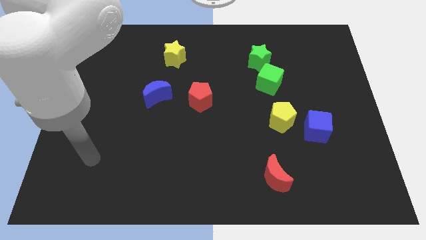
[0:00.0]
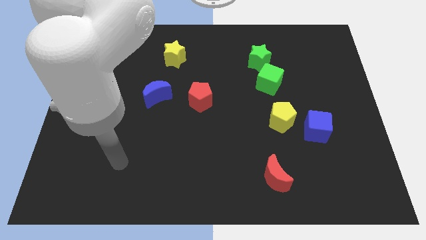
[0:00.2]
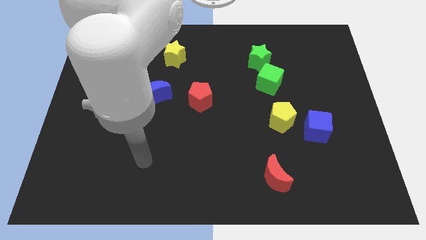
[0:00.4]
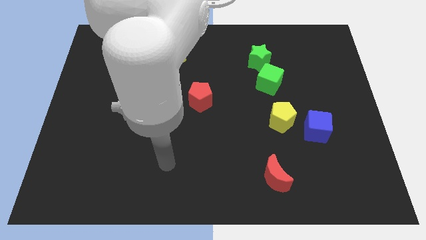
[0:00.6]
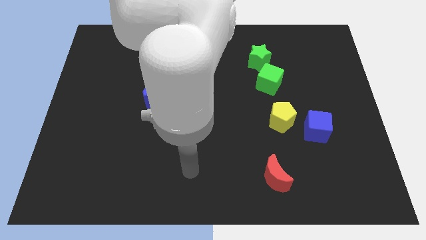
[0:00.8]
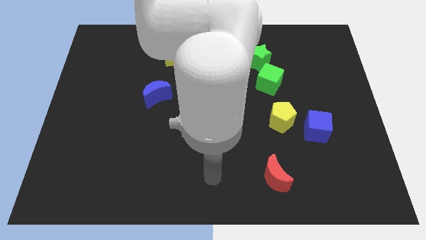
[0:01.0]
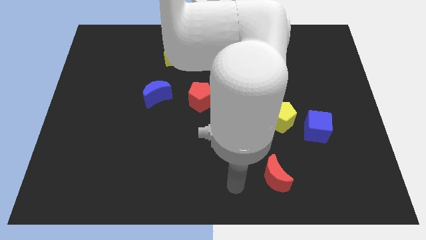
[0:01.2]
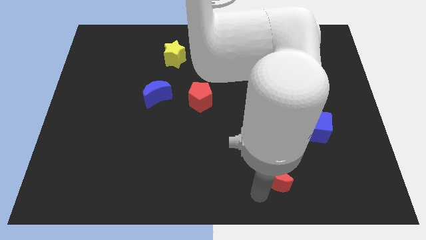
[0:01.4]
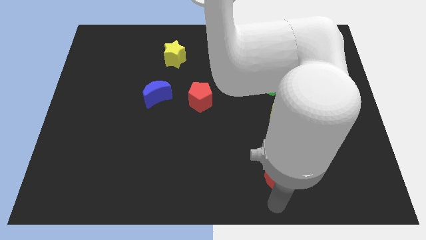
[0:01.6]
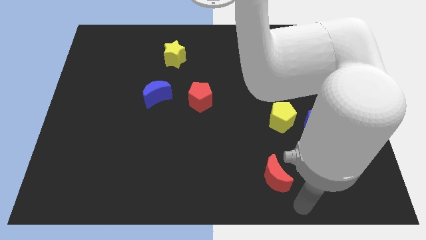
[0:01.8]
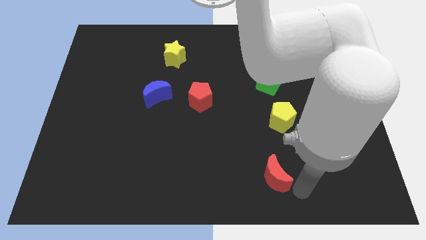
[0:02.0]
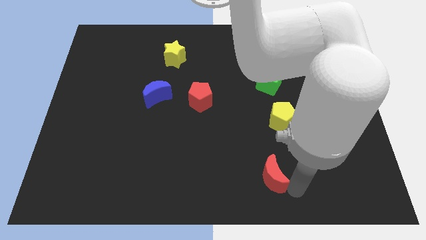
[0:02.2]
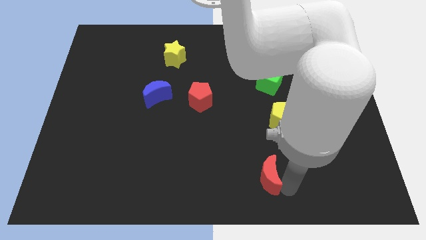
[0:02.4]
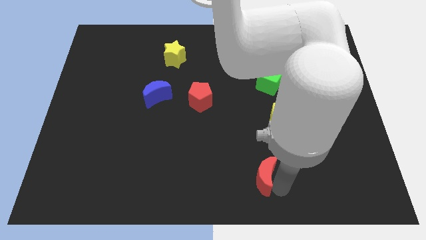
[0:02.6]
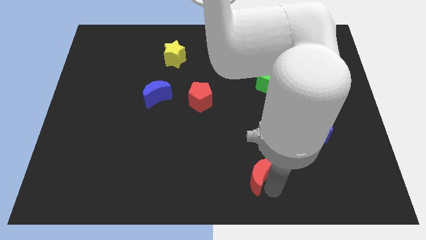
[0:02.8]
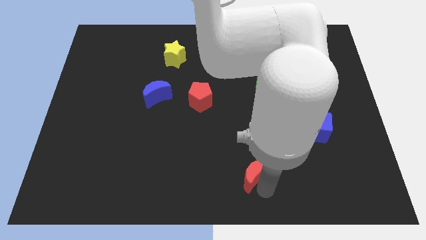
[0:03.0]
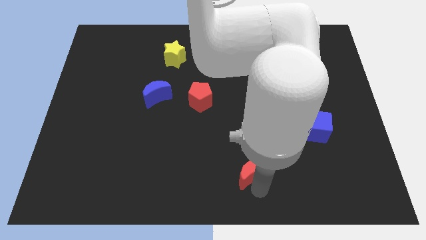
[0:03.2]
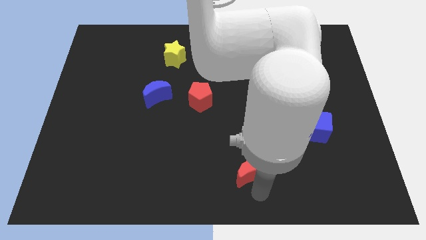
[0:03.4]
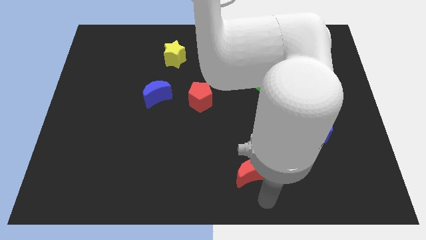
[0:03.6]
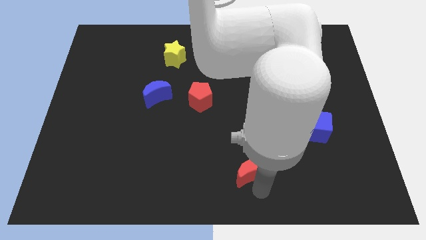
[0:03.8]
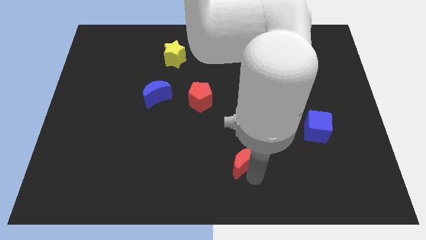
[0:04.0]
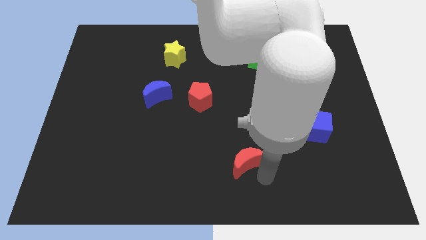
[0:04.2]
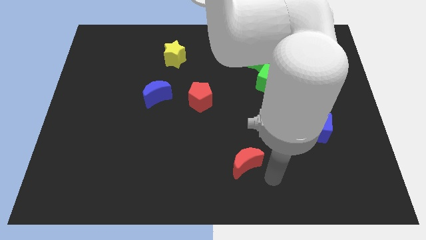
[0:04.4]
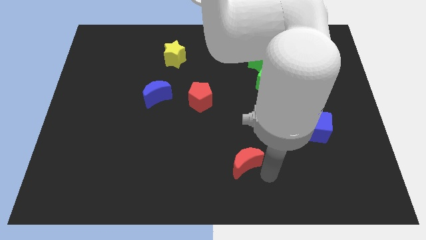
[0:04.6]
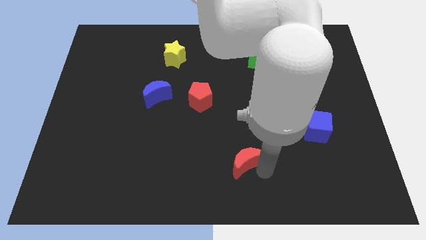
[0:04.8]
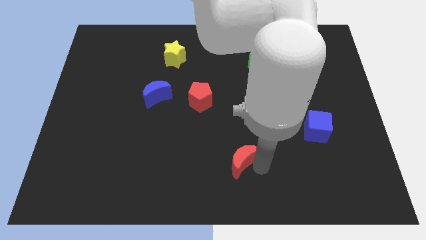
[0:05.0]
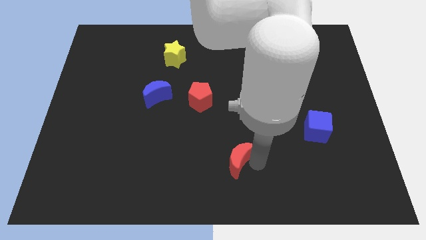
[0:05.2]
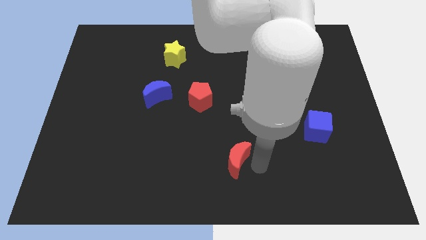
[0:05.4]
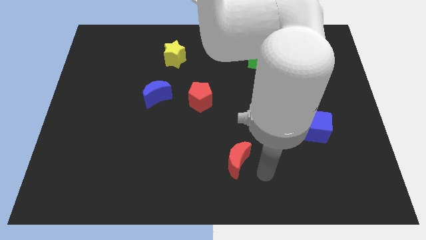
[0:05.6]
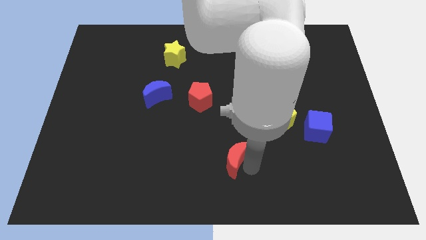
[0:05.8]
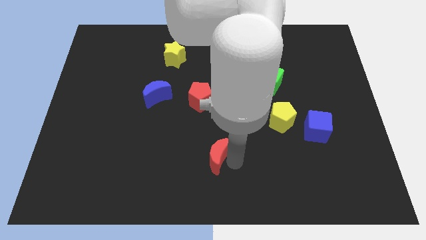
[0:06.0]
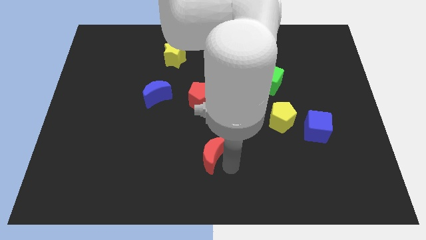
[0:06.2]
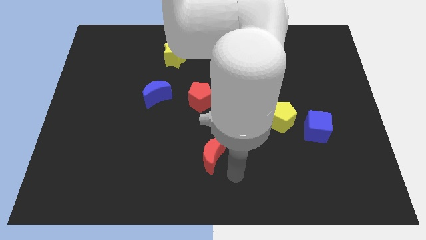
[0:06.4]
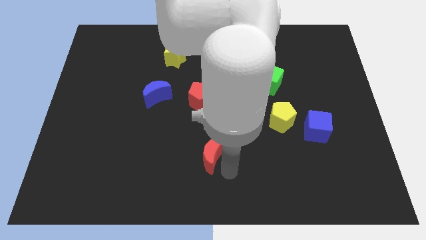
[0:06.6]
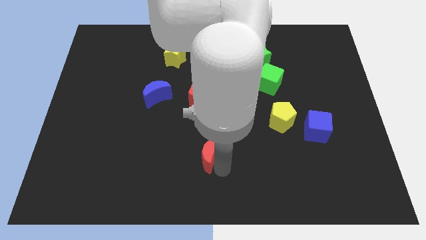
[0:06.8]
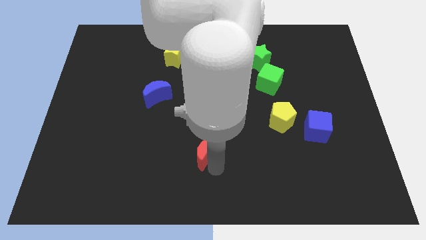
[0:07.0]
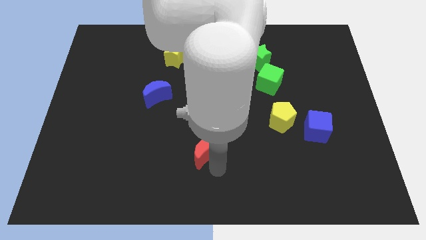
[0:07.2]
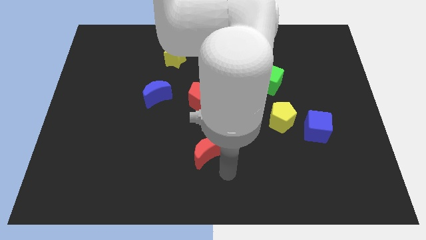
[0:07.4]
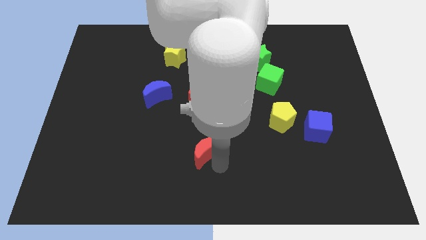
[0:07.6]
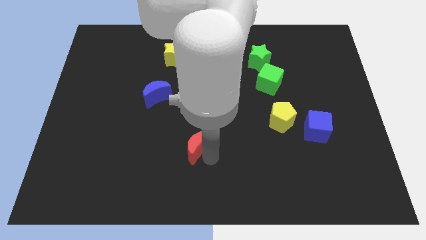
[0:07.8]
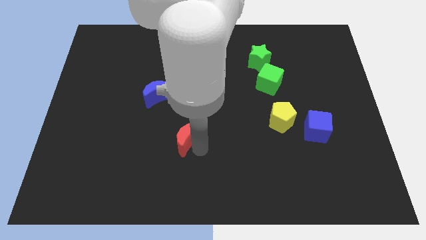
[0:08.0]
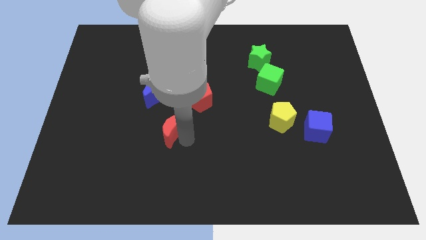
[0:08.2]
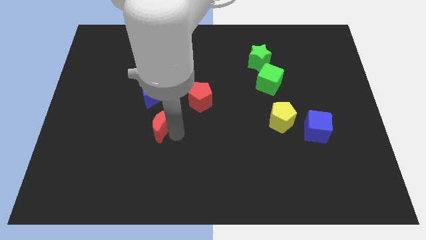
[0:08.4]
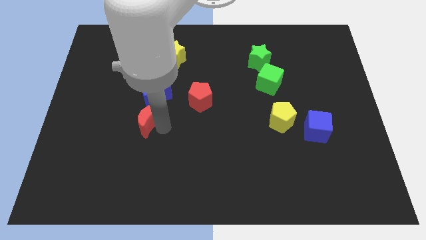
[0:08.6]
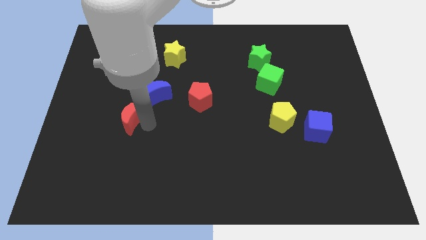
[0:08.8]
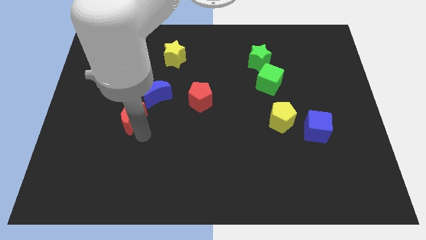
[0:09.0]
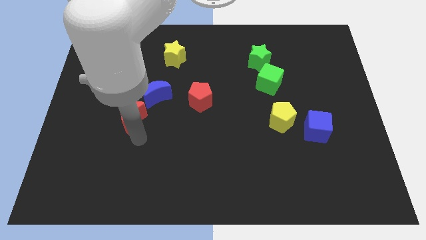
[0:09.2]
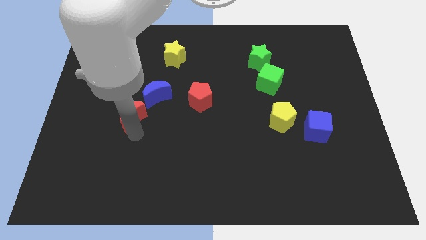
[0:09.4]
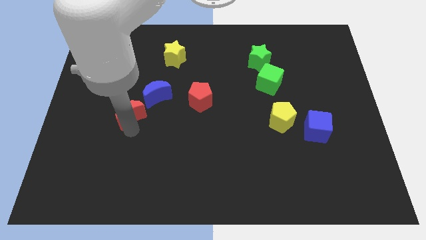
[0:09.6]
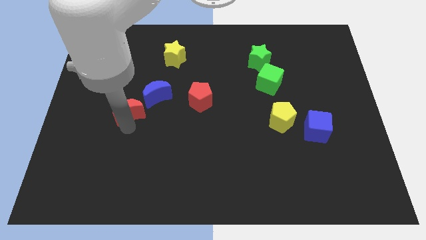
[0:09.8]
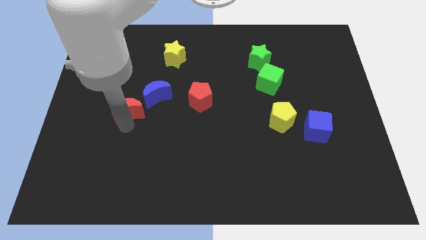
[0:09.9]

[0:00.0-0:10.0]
push the red moon just left of the blue moon

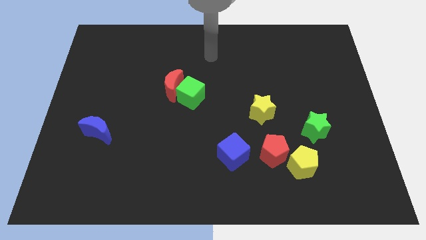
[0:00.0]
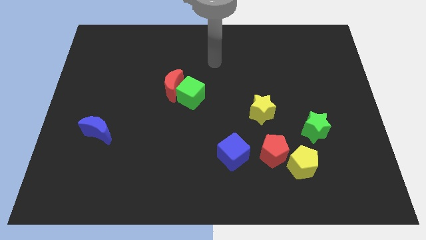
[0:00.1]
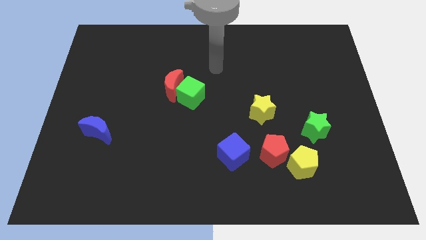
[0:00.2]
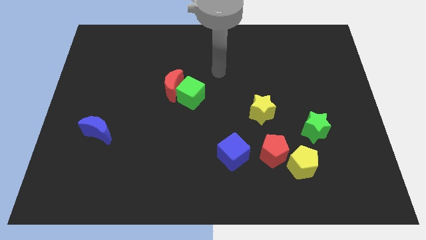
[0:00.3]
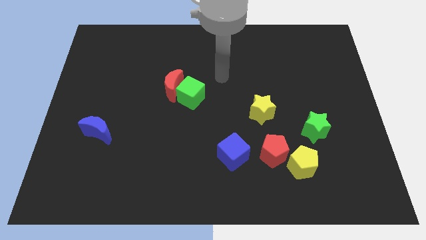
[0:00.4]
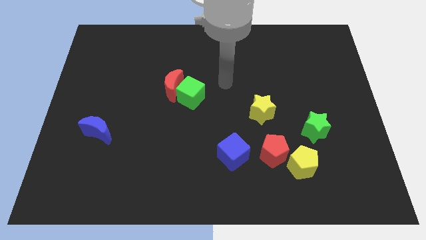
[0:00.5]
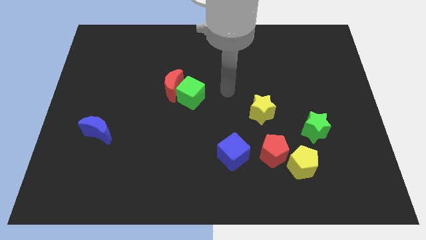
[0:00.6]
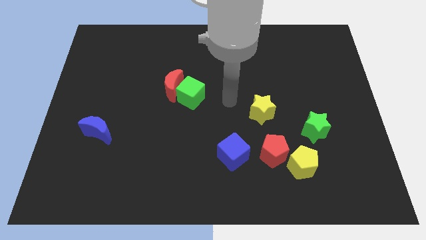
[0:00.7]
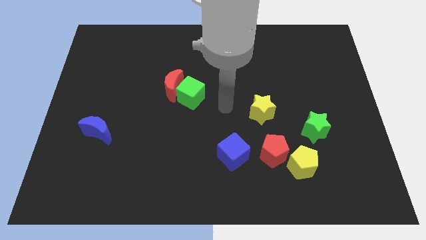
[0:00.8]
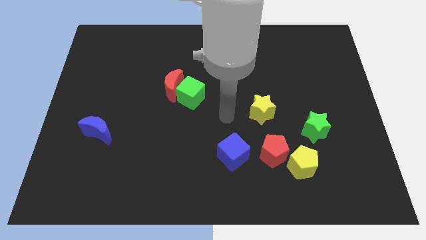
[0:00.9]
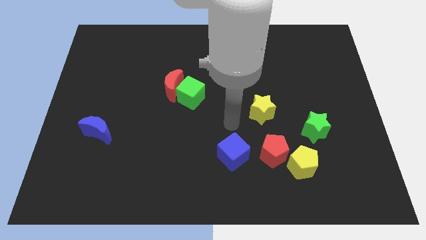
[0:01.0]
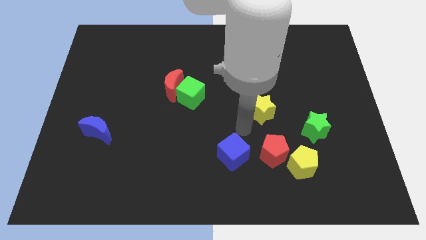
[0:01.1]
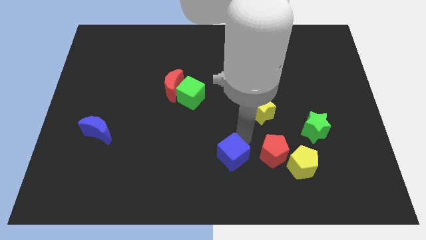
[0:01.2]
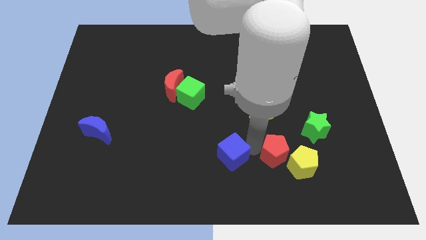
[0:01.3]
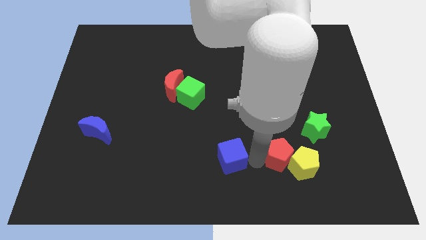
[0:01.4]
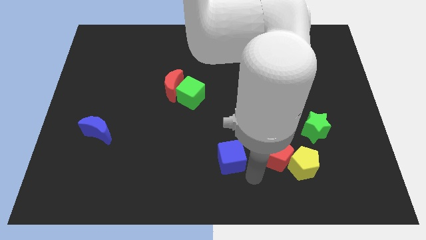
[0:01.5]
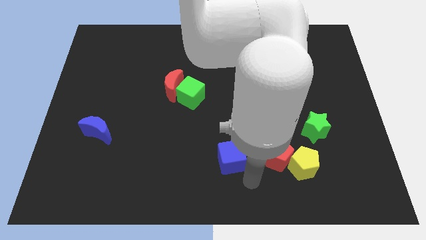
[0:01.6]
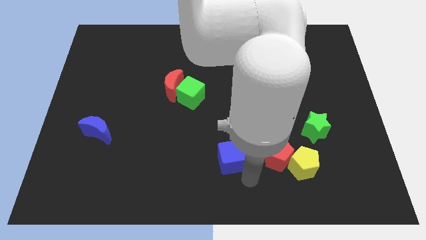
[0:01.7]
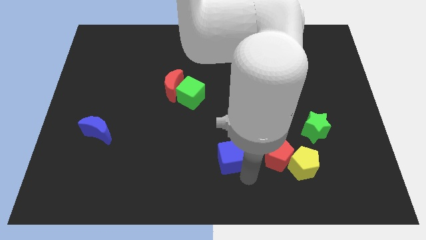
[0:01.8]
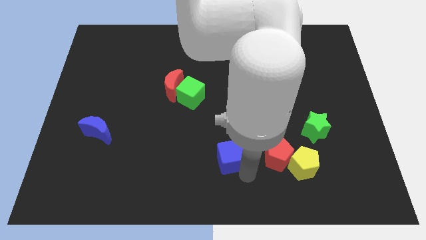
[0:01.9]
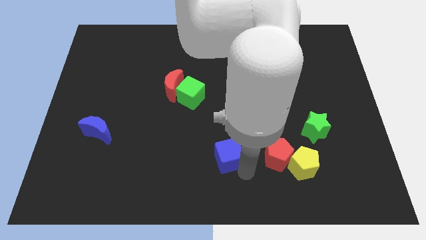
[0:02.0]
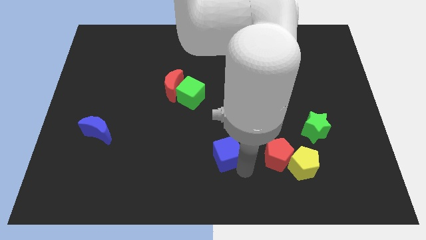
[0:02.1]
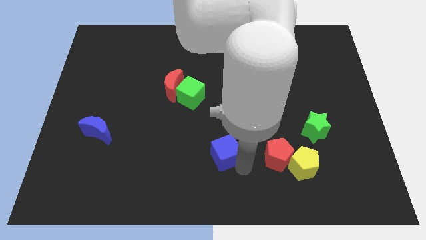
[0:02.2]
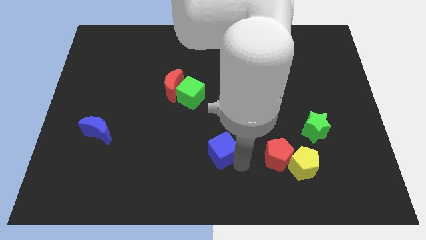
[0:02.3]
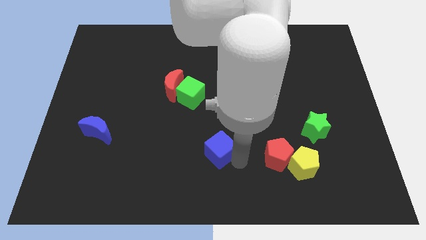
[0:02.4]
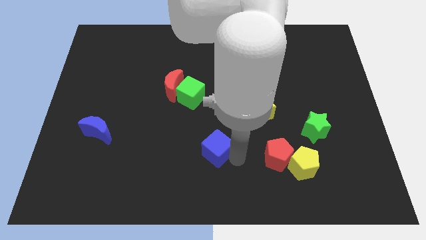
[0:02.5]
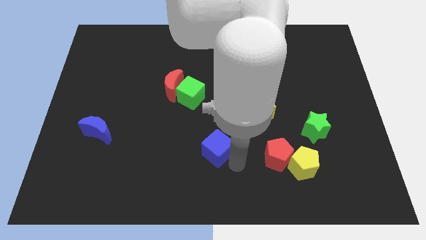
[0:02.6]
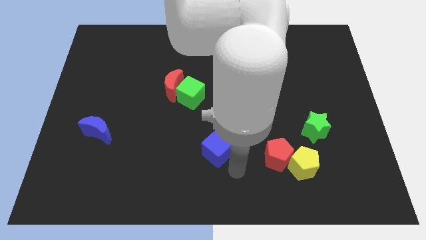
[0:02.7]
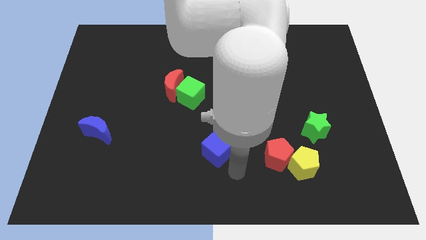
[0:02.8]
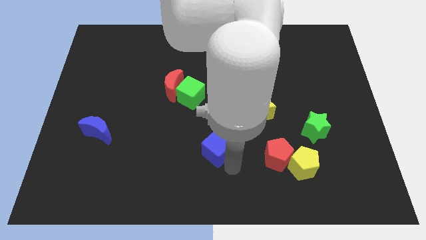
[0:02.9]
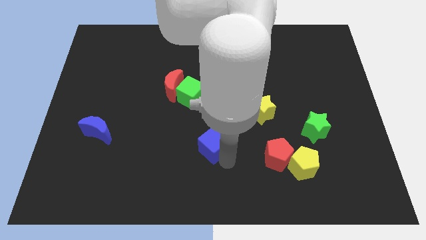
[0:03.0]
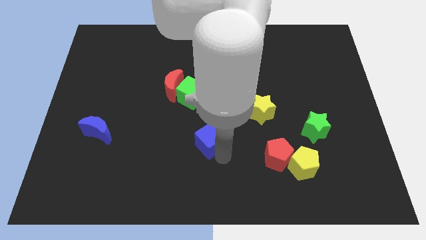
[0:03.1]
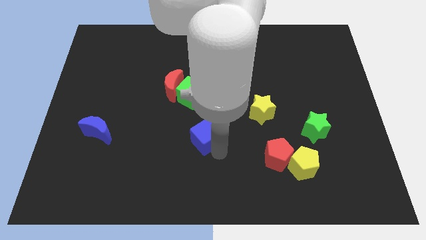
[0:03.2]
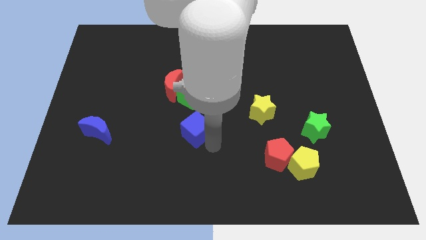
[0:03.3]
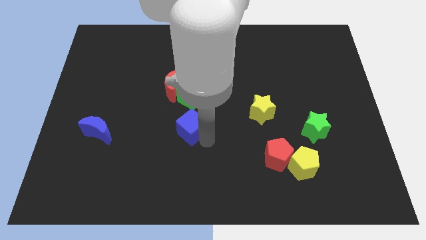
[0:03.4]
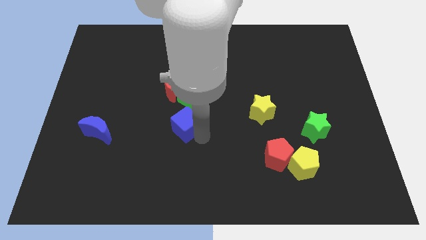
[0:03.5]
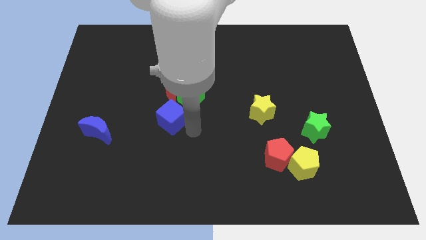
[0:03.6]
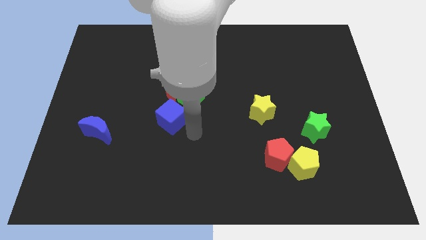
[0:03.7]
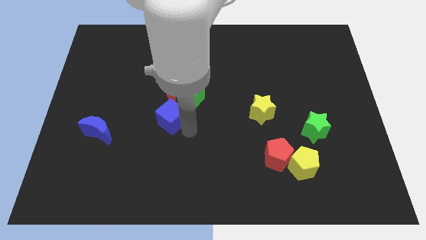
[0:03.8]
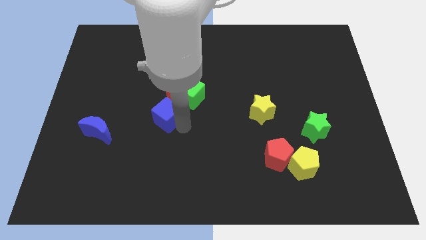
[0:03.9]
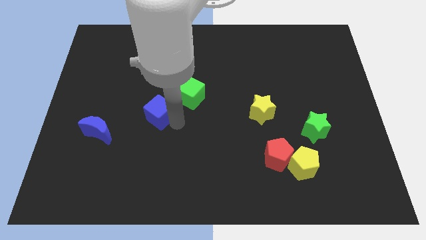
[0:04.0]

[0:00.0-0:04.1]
move the blue cube to the bottom left side of the red moon
